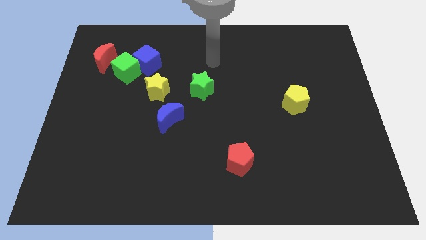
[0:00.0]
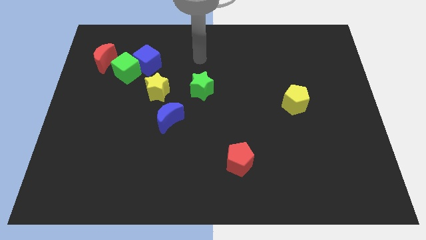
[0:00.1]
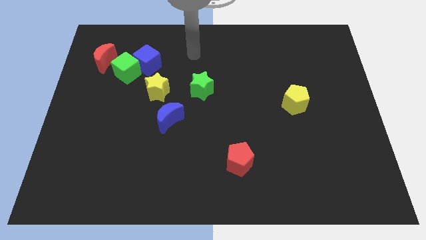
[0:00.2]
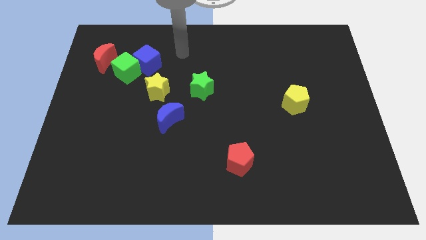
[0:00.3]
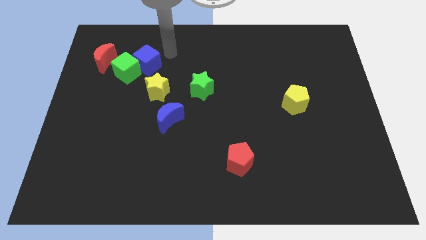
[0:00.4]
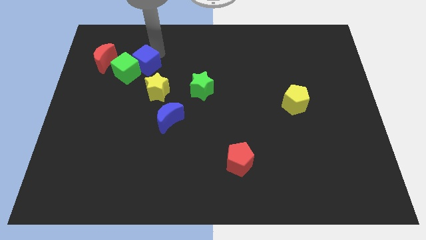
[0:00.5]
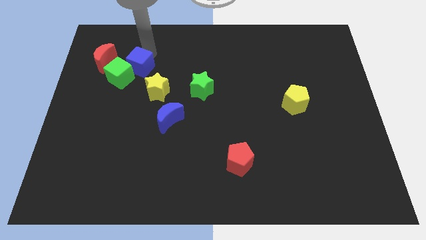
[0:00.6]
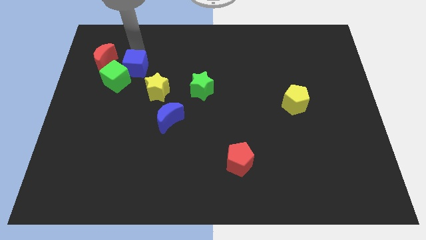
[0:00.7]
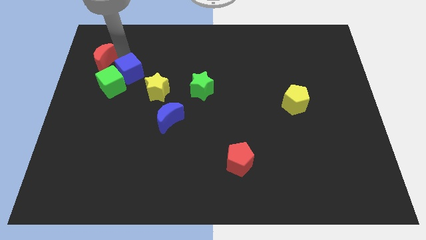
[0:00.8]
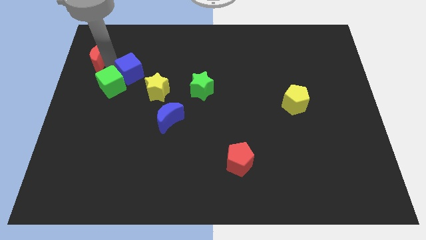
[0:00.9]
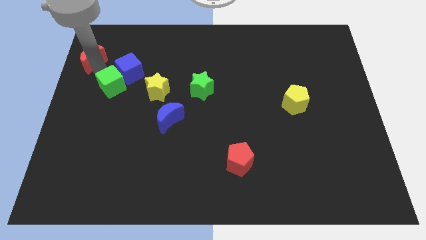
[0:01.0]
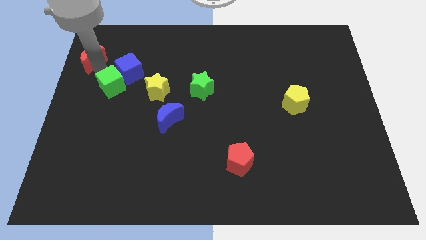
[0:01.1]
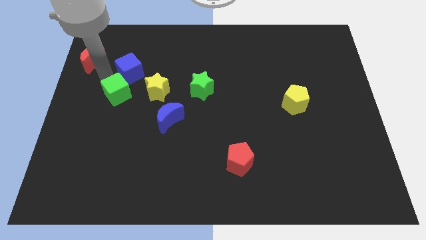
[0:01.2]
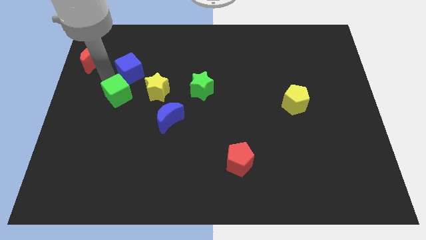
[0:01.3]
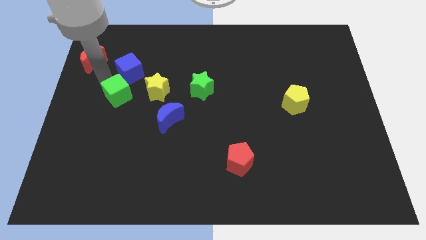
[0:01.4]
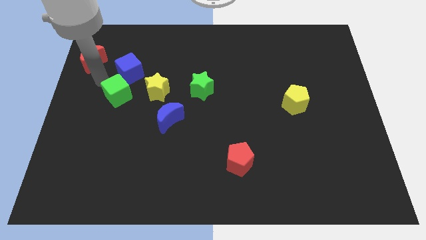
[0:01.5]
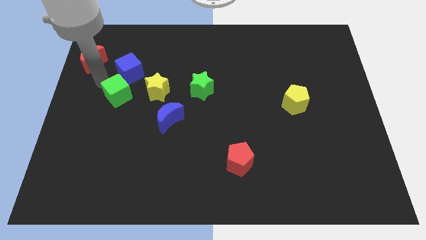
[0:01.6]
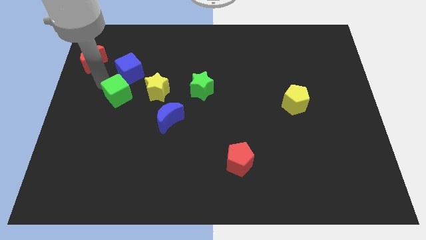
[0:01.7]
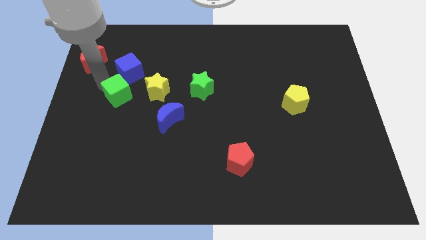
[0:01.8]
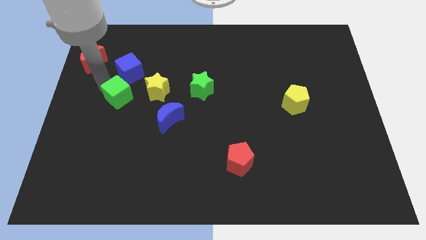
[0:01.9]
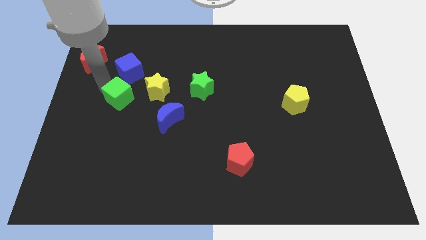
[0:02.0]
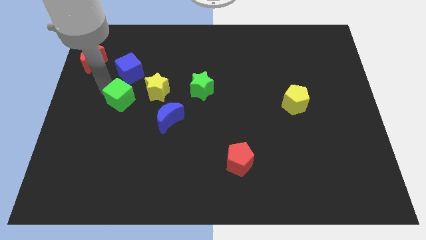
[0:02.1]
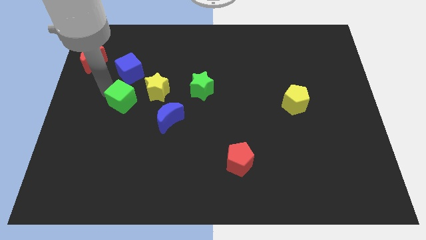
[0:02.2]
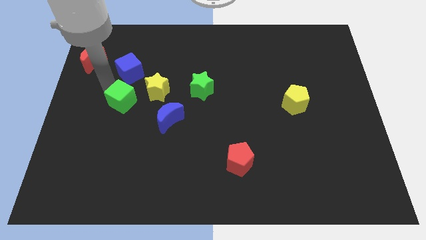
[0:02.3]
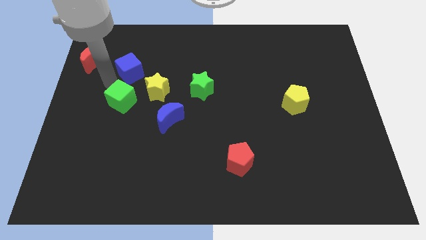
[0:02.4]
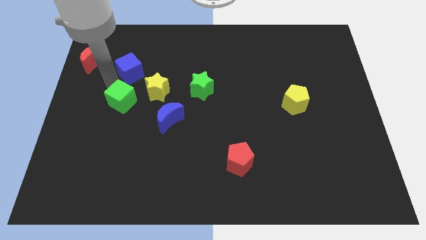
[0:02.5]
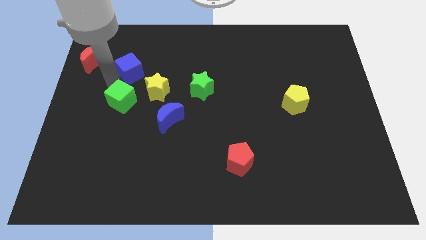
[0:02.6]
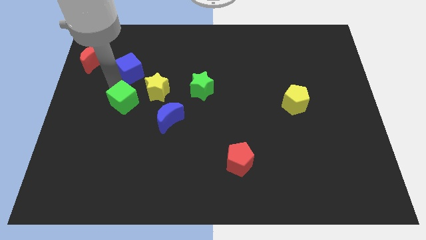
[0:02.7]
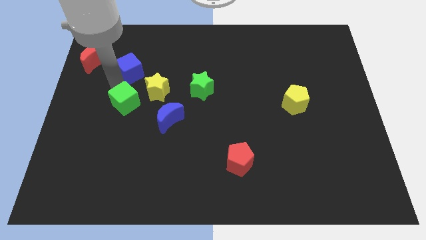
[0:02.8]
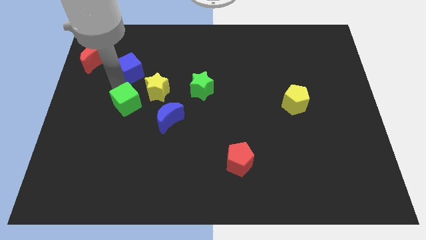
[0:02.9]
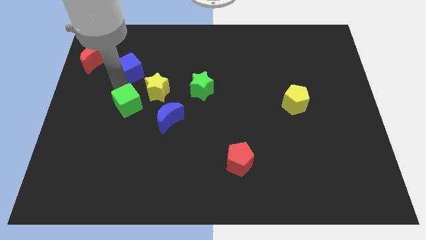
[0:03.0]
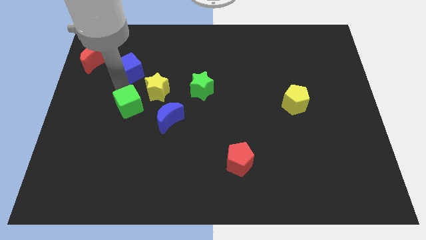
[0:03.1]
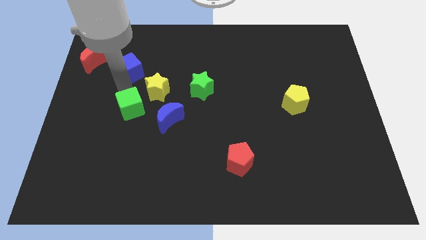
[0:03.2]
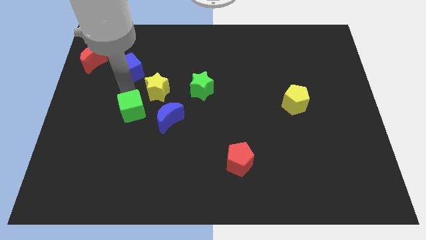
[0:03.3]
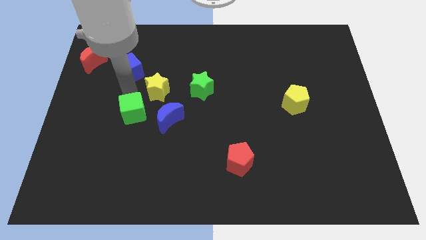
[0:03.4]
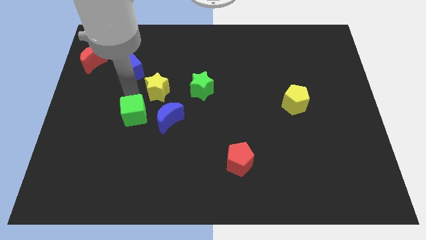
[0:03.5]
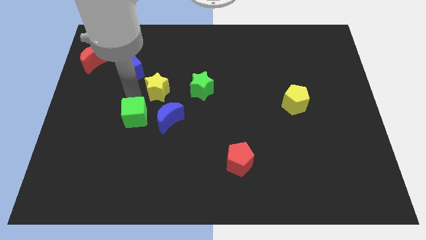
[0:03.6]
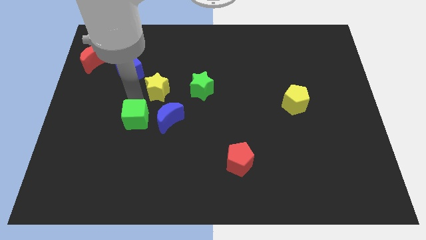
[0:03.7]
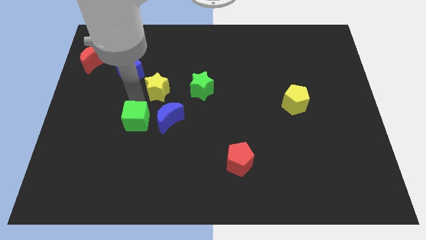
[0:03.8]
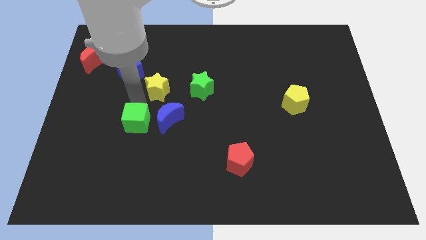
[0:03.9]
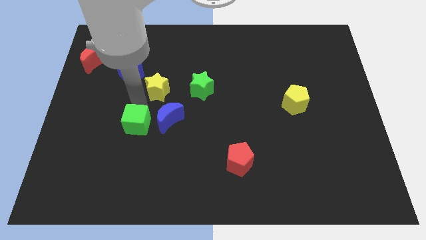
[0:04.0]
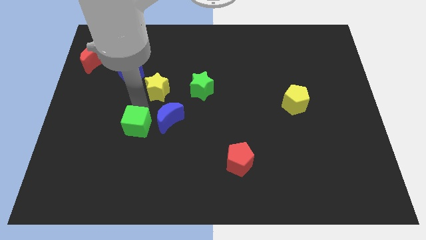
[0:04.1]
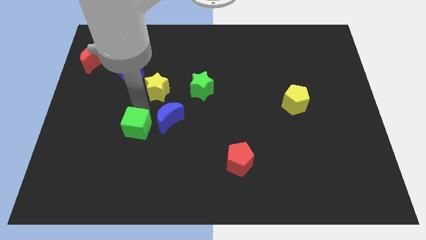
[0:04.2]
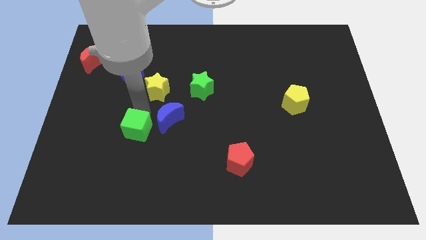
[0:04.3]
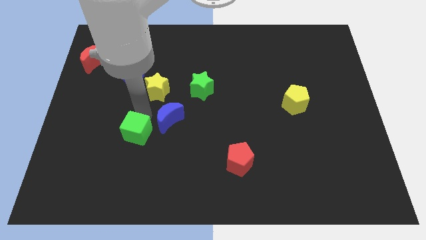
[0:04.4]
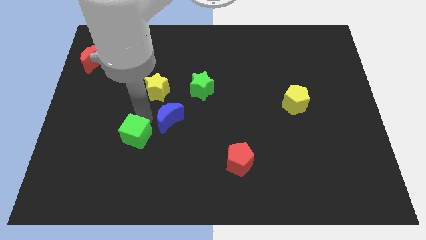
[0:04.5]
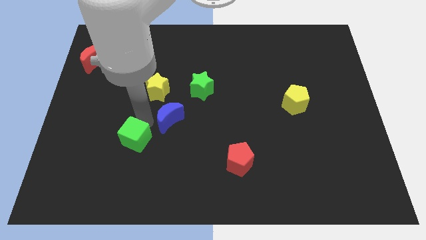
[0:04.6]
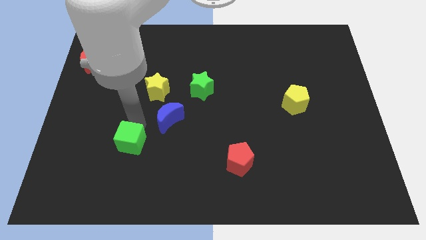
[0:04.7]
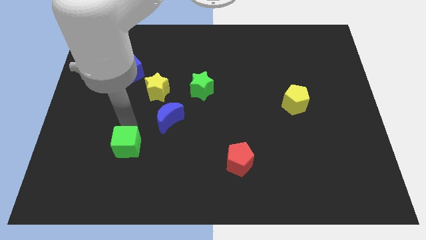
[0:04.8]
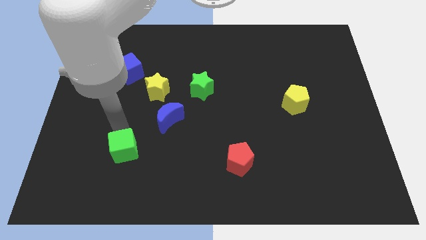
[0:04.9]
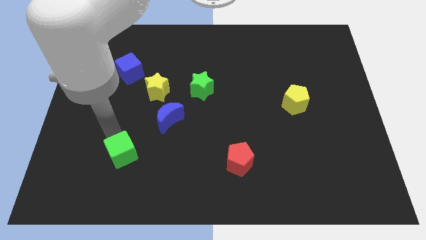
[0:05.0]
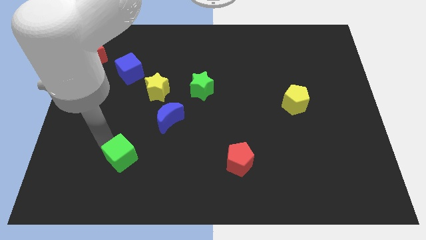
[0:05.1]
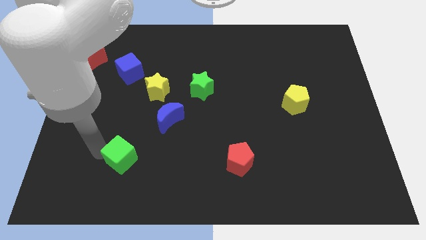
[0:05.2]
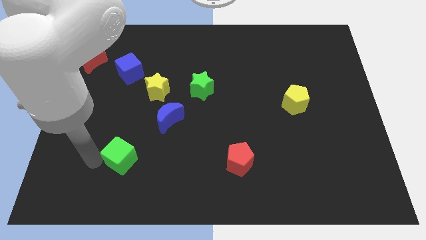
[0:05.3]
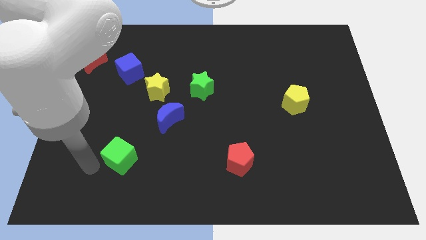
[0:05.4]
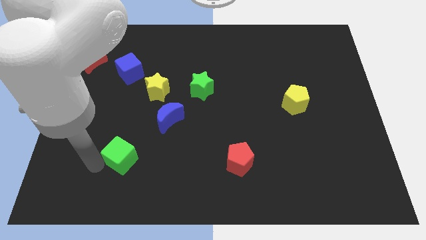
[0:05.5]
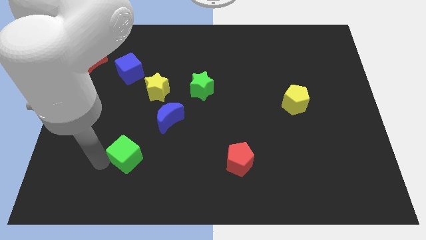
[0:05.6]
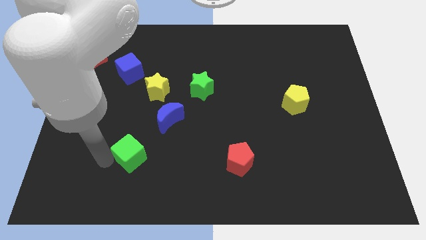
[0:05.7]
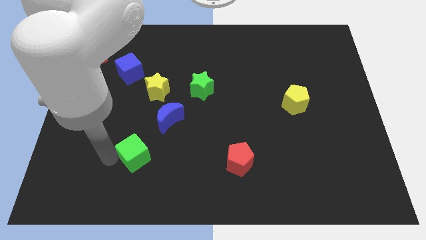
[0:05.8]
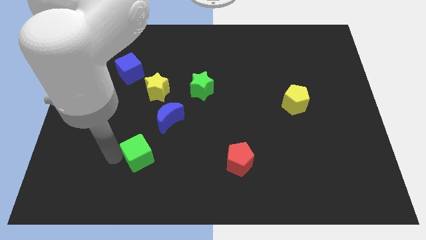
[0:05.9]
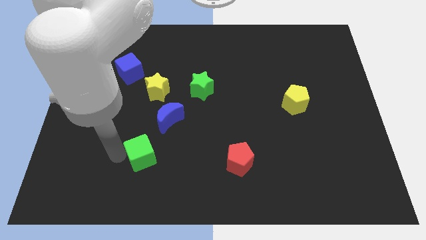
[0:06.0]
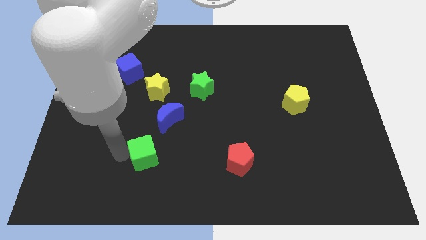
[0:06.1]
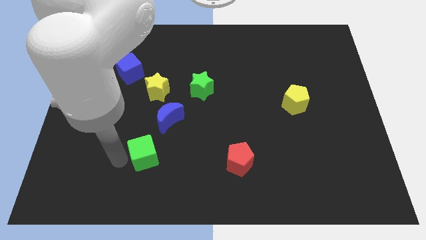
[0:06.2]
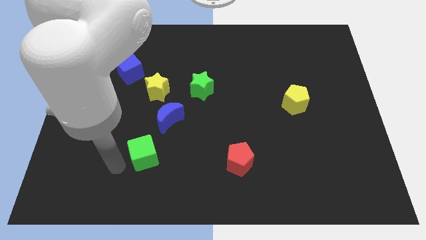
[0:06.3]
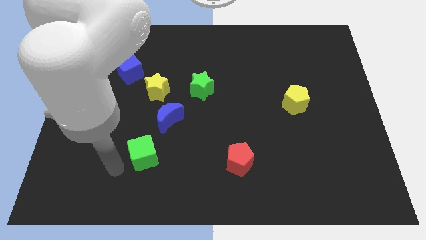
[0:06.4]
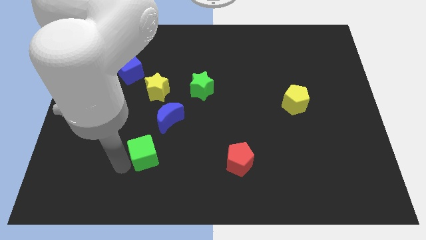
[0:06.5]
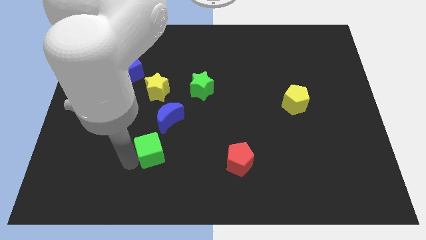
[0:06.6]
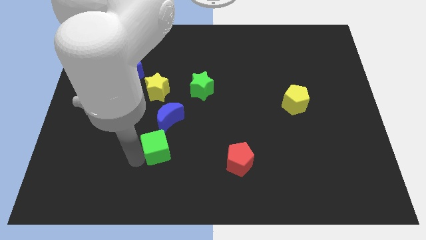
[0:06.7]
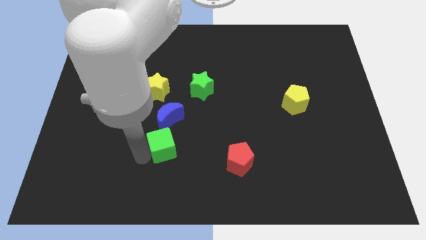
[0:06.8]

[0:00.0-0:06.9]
push the green cube down and then to the right

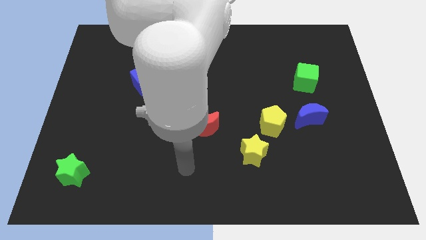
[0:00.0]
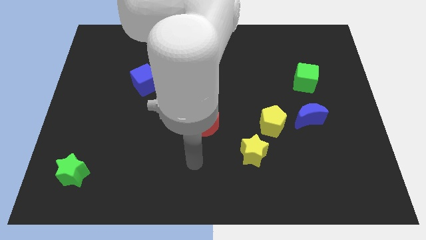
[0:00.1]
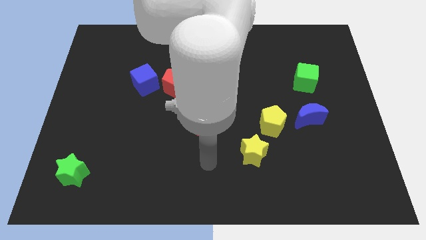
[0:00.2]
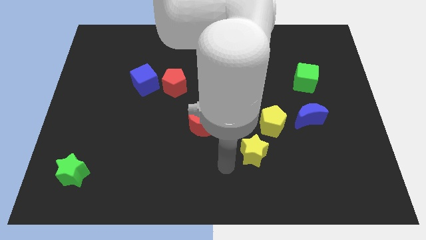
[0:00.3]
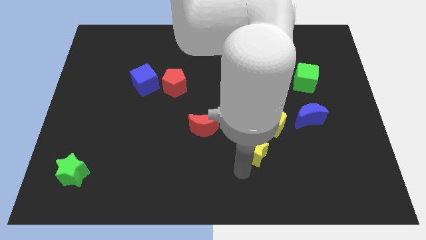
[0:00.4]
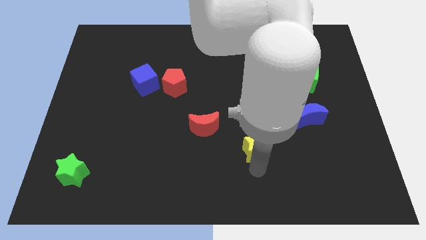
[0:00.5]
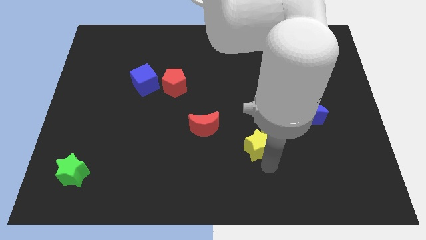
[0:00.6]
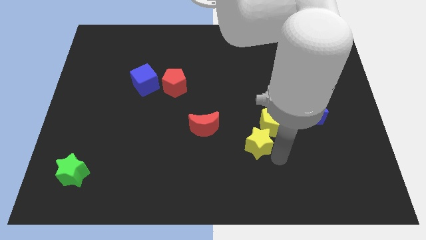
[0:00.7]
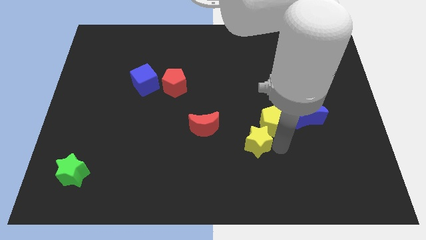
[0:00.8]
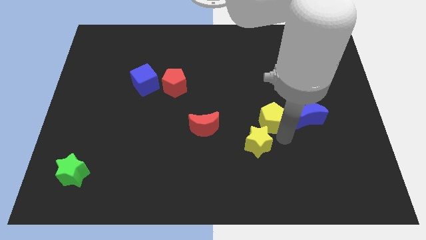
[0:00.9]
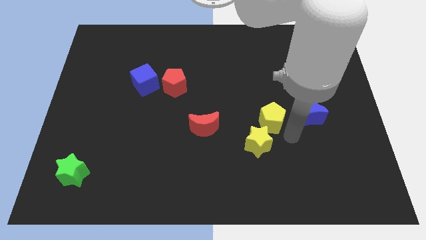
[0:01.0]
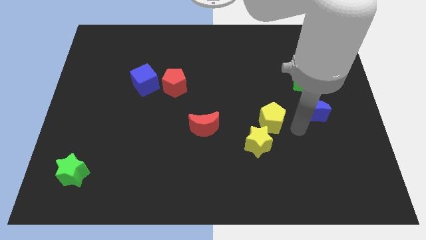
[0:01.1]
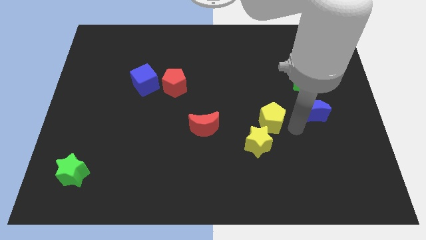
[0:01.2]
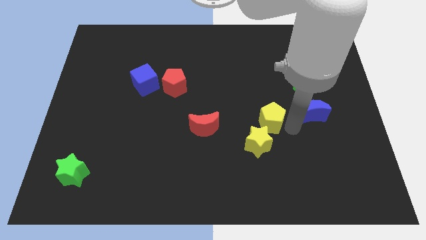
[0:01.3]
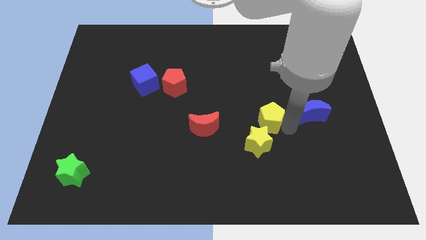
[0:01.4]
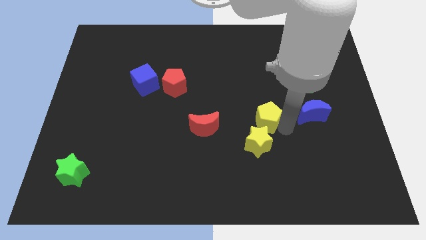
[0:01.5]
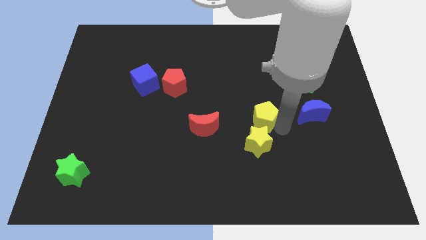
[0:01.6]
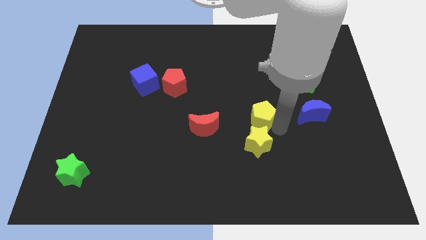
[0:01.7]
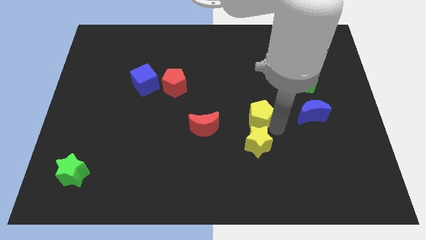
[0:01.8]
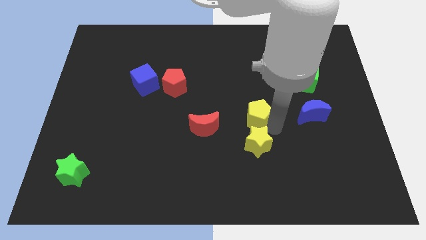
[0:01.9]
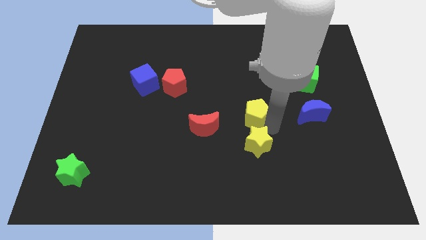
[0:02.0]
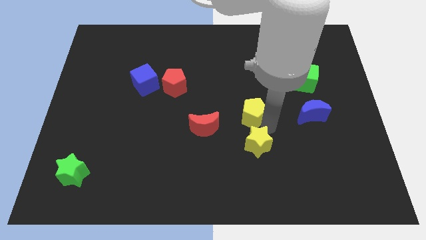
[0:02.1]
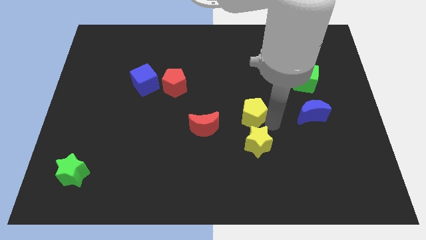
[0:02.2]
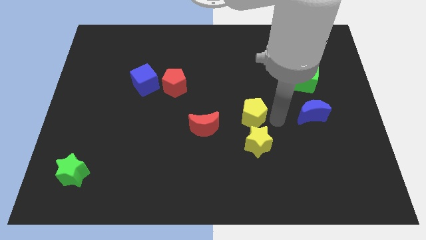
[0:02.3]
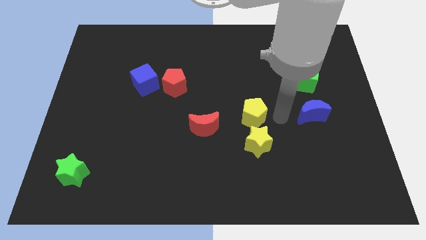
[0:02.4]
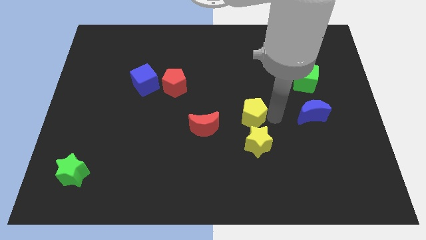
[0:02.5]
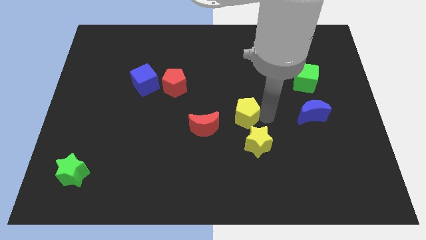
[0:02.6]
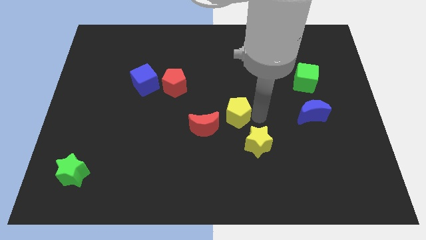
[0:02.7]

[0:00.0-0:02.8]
push the yellow pentagon a little bit left
